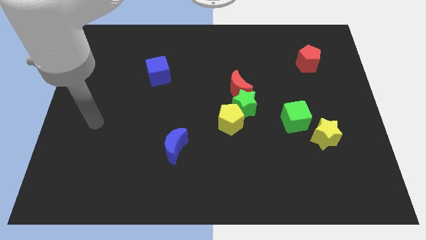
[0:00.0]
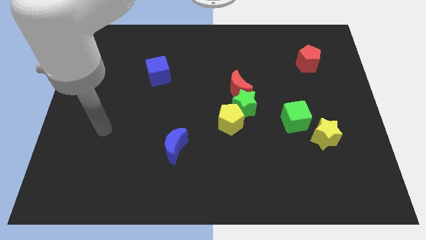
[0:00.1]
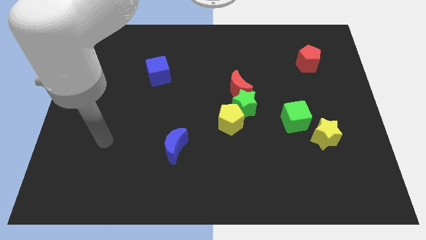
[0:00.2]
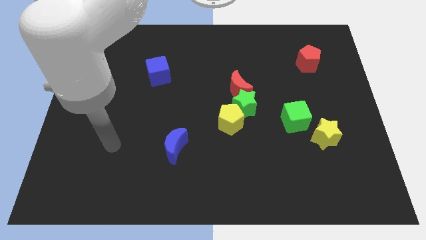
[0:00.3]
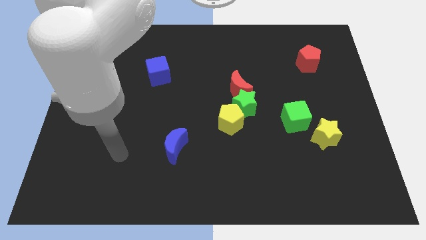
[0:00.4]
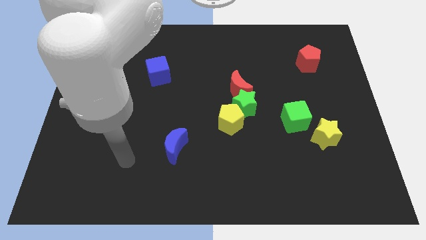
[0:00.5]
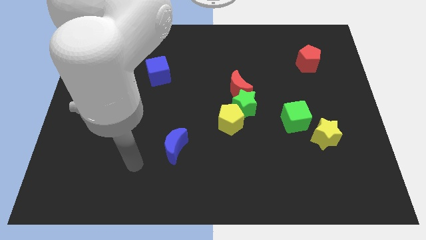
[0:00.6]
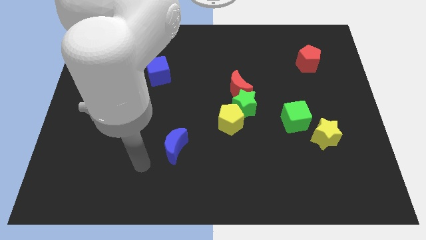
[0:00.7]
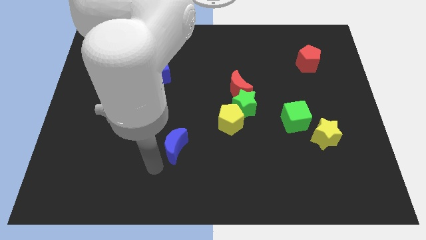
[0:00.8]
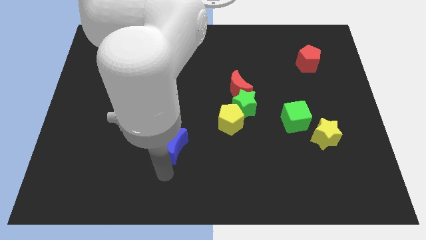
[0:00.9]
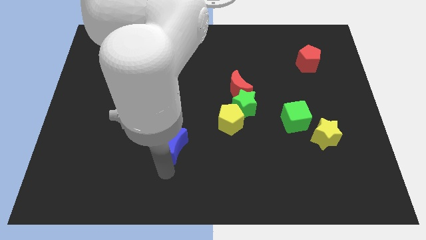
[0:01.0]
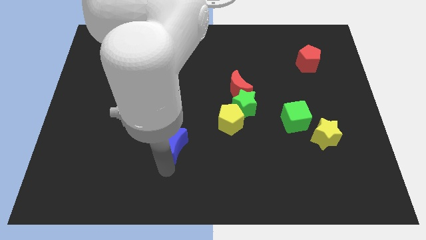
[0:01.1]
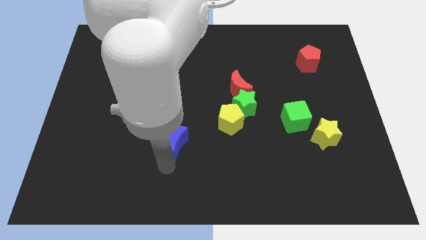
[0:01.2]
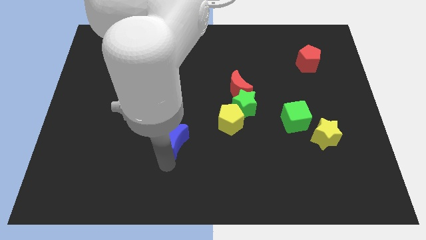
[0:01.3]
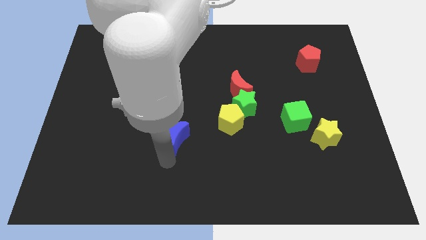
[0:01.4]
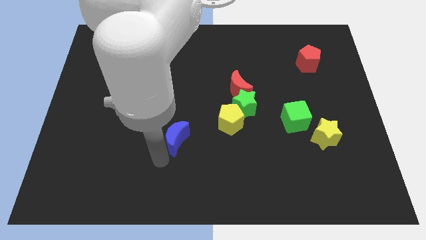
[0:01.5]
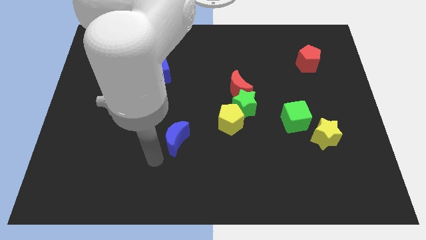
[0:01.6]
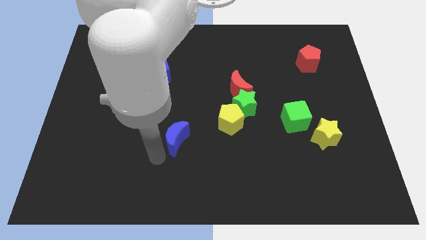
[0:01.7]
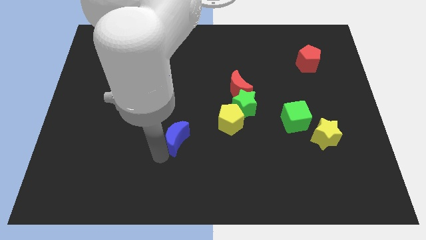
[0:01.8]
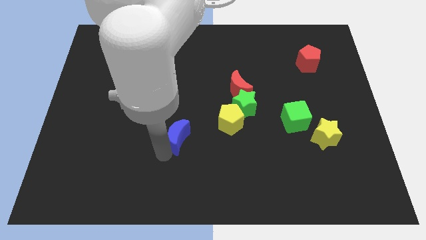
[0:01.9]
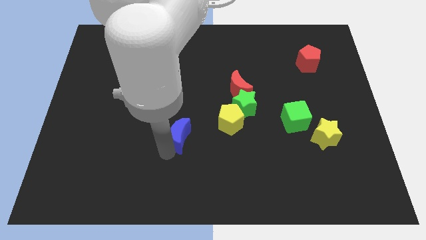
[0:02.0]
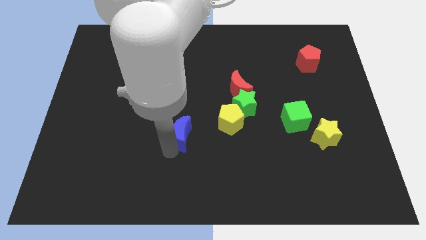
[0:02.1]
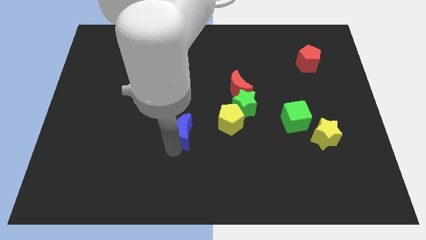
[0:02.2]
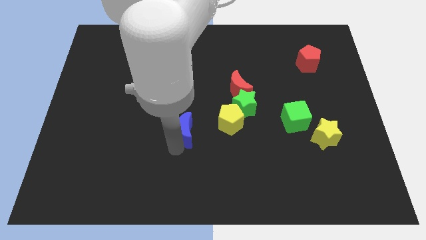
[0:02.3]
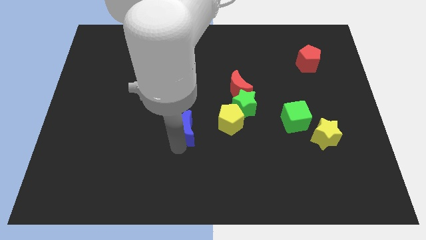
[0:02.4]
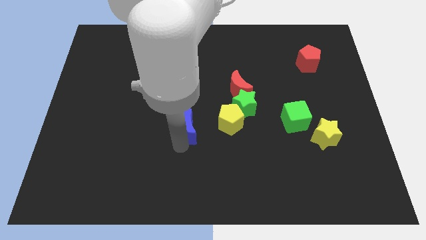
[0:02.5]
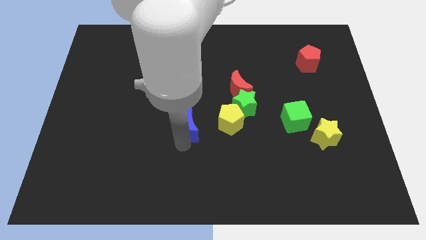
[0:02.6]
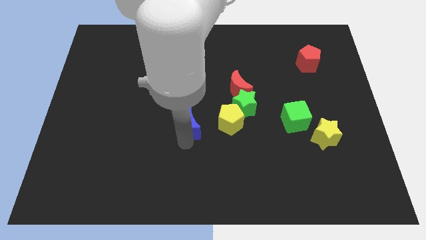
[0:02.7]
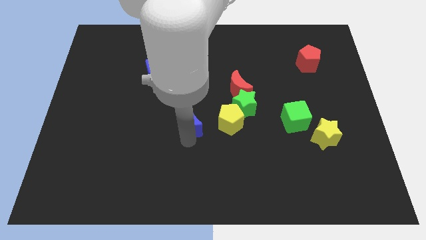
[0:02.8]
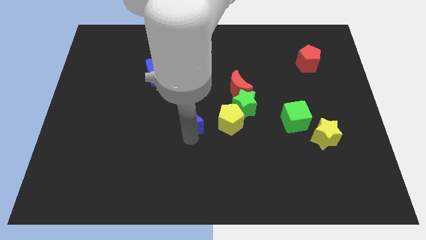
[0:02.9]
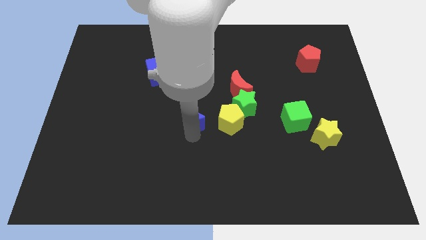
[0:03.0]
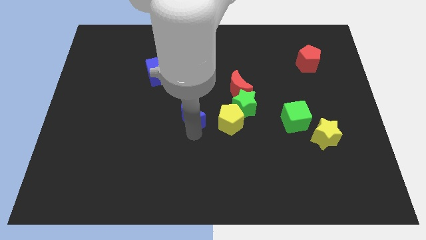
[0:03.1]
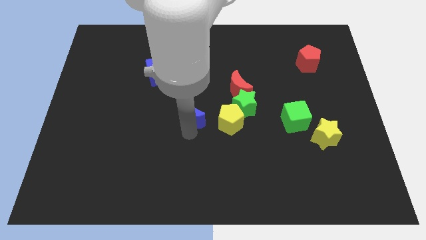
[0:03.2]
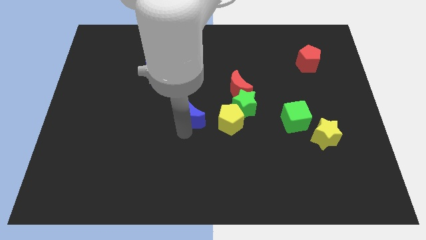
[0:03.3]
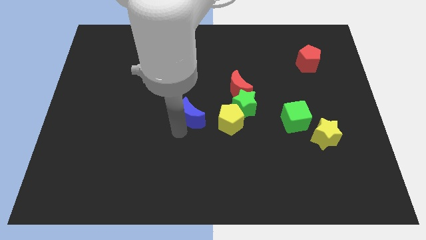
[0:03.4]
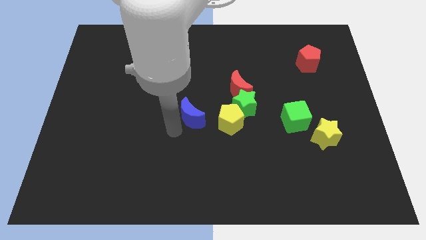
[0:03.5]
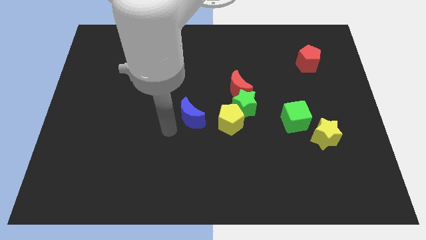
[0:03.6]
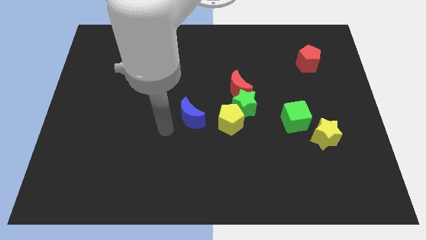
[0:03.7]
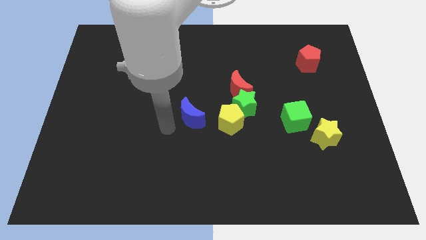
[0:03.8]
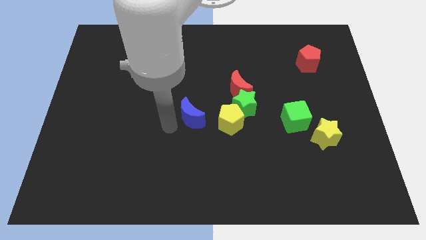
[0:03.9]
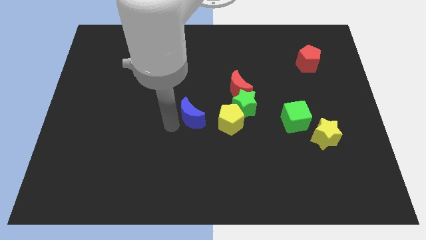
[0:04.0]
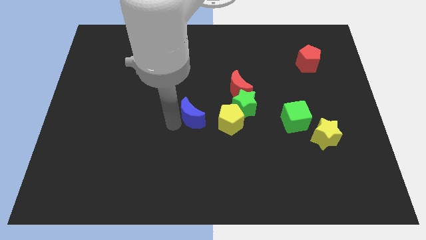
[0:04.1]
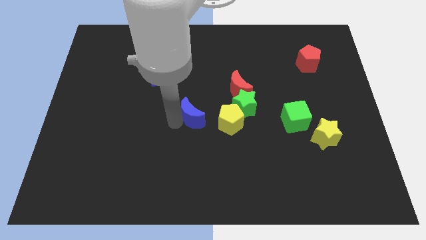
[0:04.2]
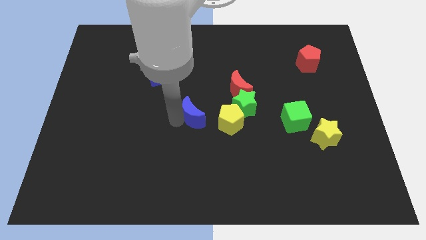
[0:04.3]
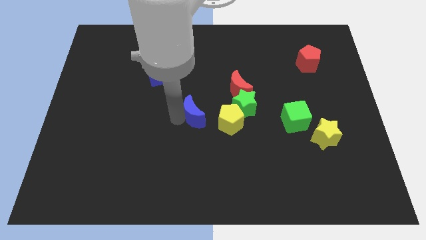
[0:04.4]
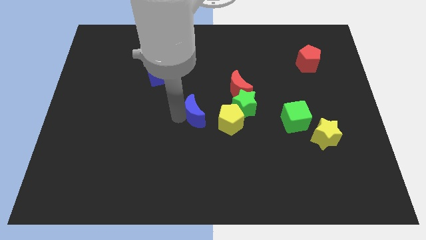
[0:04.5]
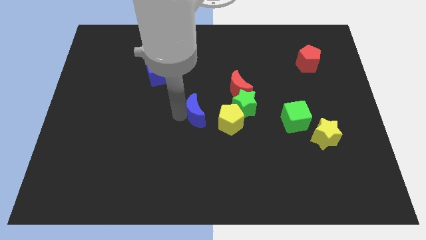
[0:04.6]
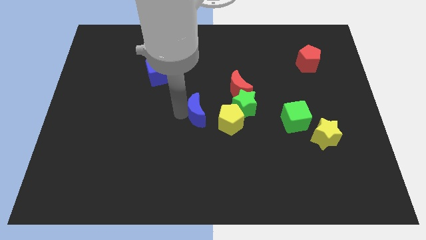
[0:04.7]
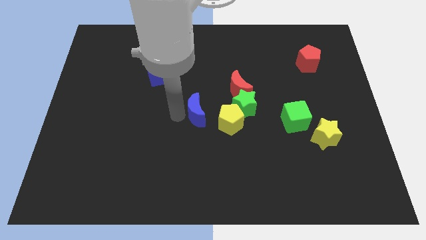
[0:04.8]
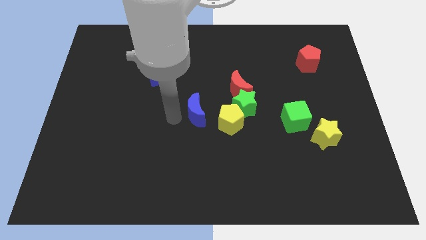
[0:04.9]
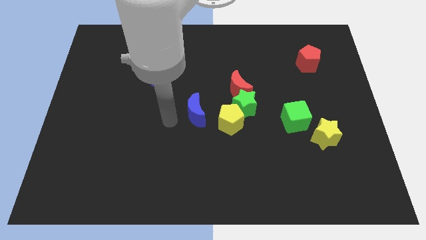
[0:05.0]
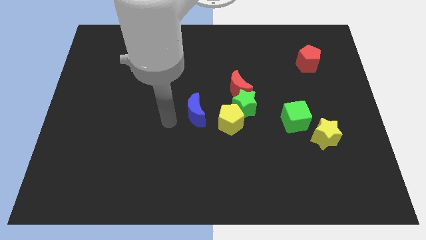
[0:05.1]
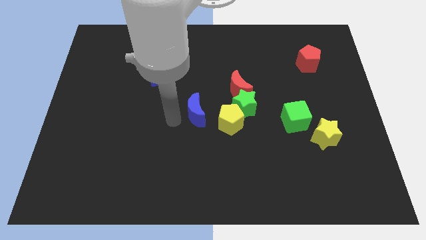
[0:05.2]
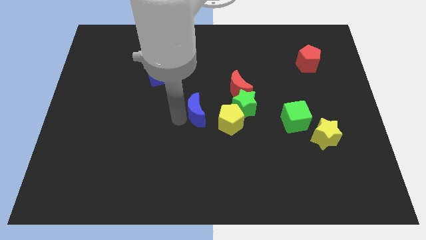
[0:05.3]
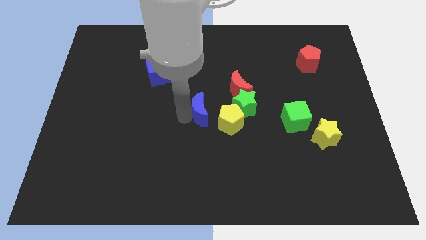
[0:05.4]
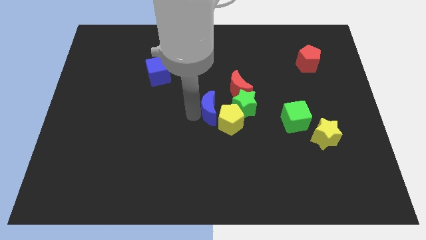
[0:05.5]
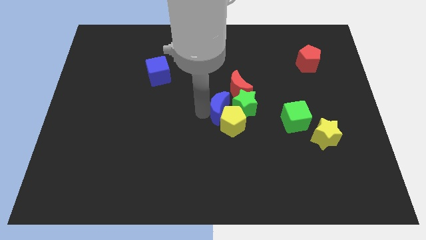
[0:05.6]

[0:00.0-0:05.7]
move the blue moon towards the green star

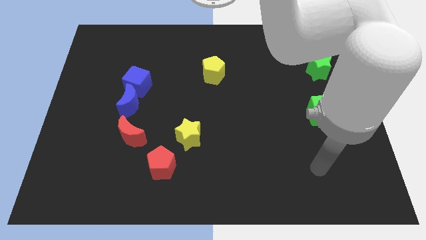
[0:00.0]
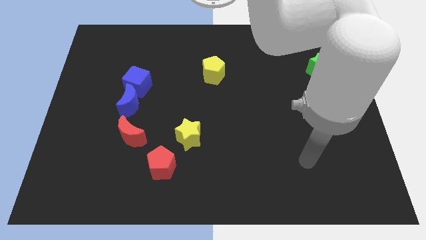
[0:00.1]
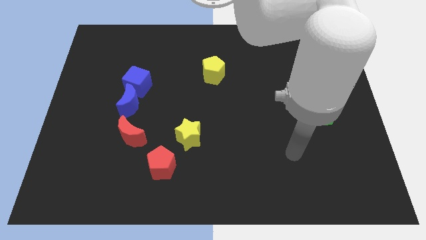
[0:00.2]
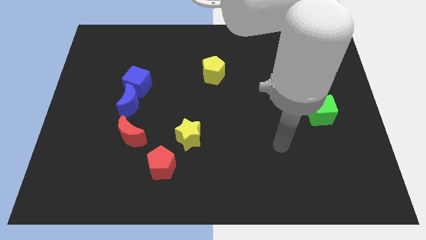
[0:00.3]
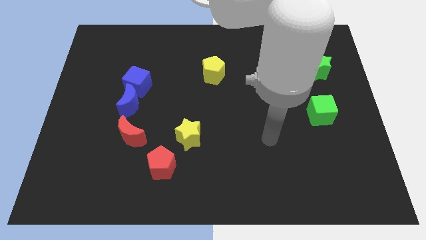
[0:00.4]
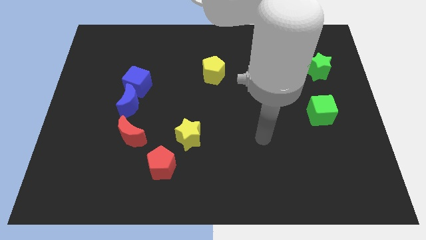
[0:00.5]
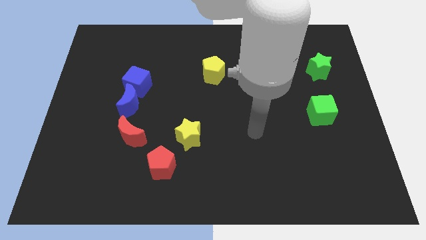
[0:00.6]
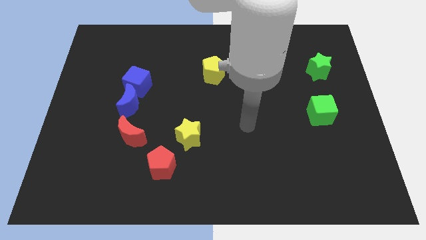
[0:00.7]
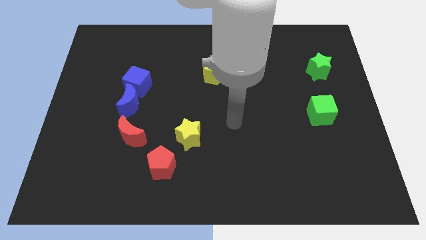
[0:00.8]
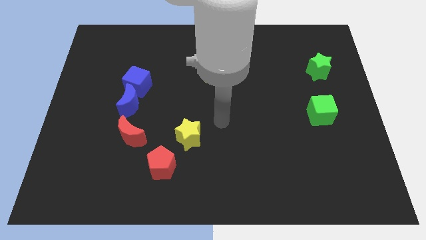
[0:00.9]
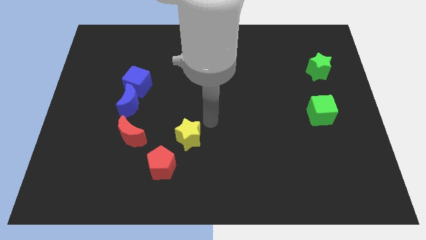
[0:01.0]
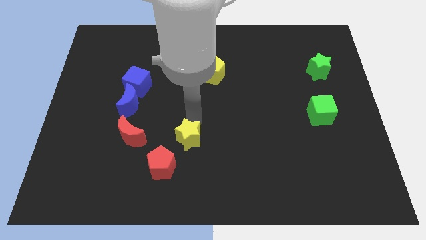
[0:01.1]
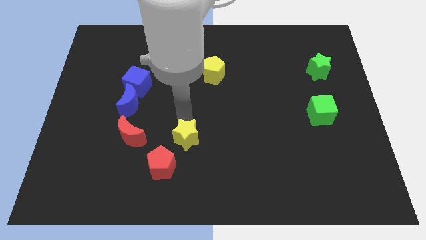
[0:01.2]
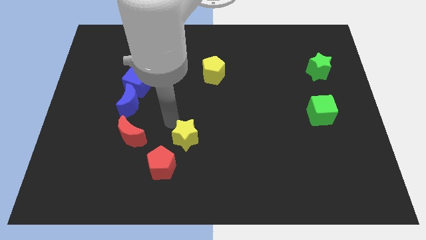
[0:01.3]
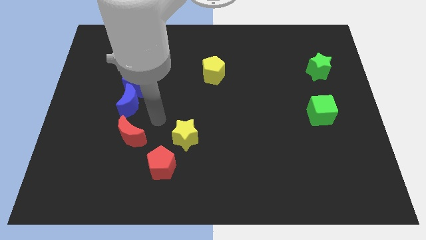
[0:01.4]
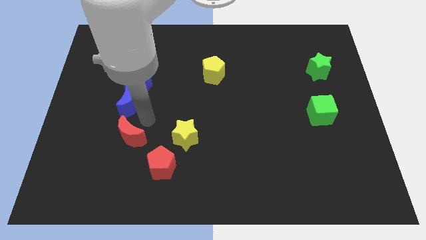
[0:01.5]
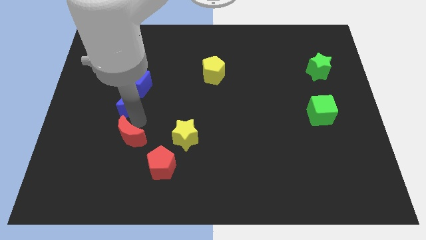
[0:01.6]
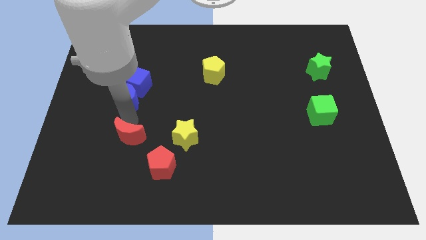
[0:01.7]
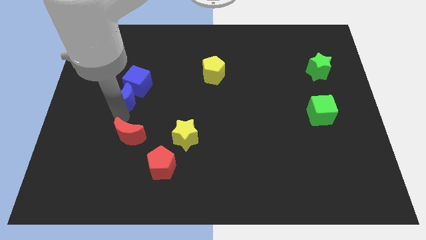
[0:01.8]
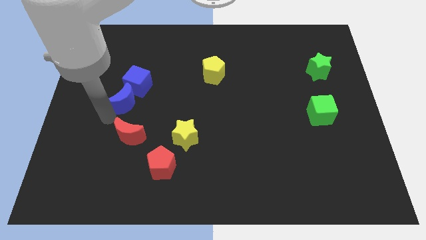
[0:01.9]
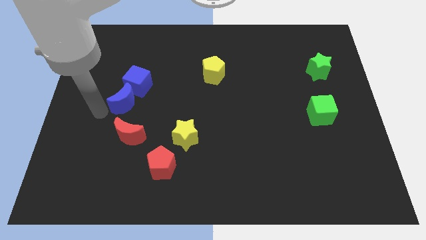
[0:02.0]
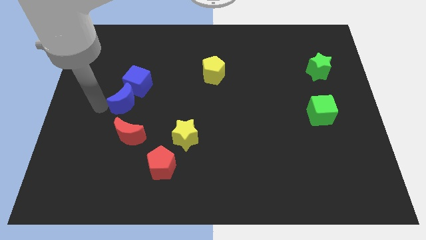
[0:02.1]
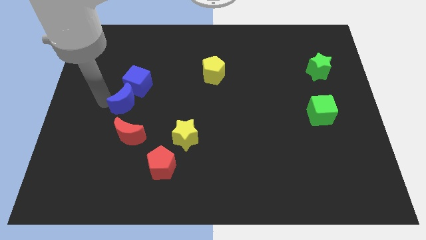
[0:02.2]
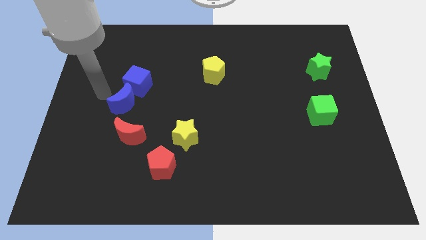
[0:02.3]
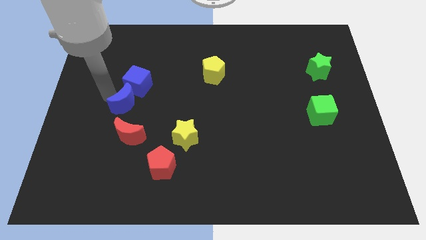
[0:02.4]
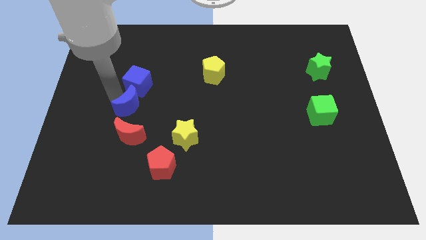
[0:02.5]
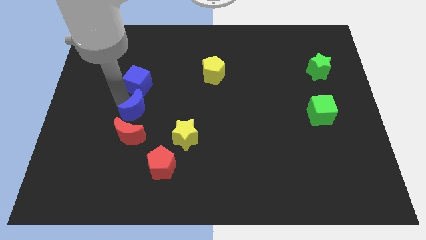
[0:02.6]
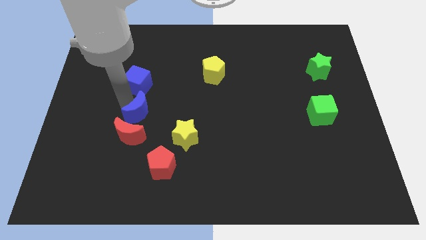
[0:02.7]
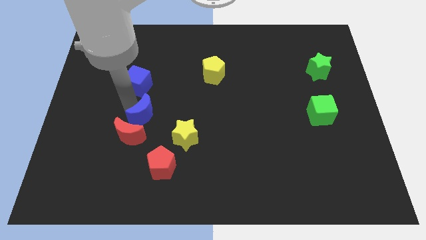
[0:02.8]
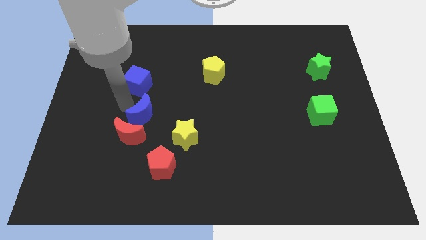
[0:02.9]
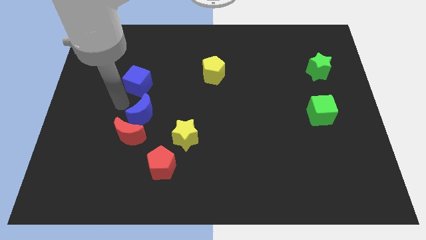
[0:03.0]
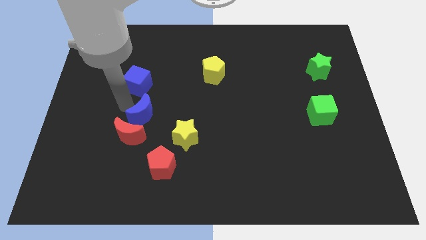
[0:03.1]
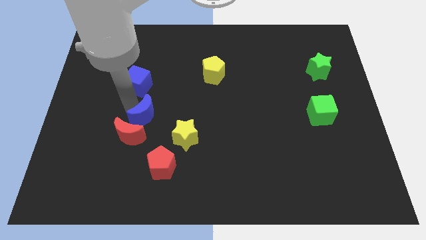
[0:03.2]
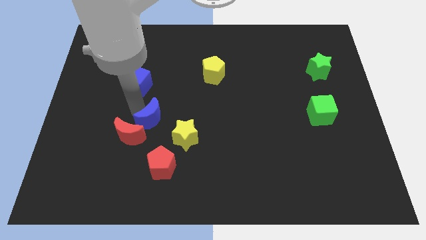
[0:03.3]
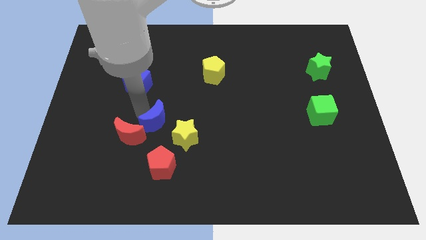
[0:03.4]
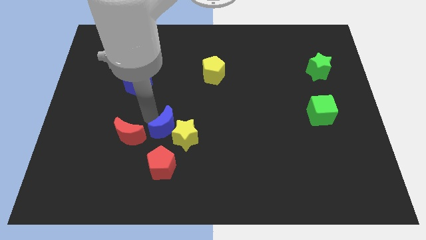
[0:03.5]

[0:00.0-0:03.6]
move the blue moon towards the yellow star
